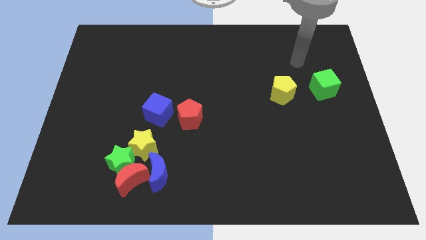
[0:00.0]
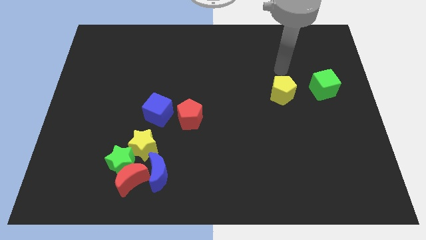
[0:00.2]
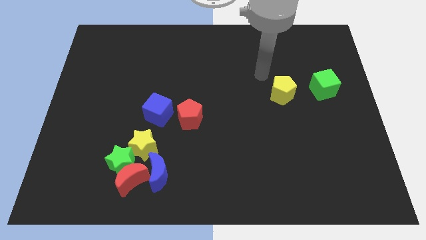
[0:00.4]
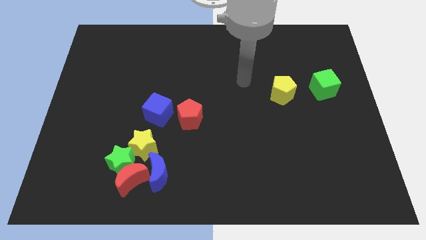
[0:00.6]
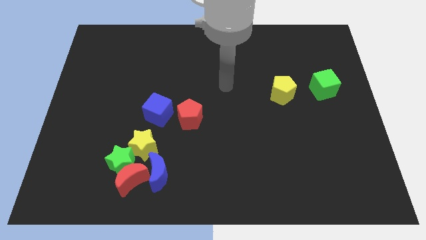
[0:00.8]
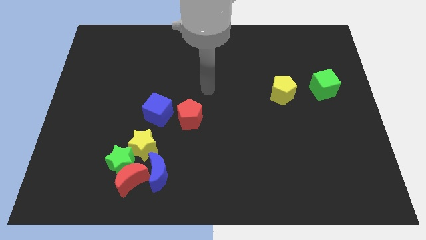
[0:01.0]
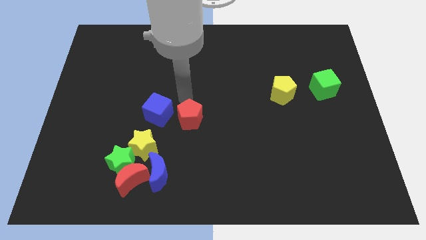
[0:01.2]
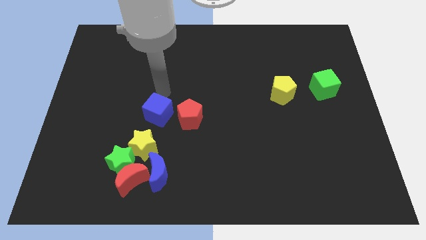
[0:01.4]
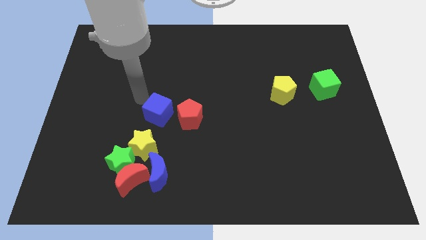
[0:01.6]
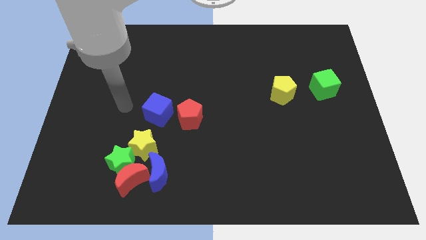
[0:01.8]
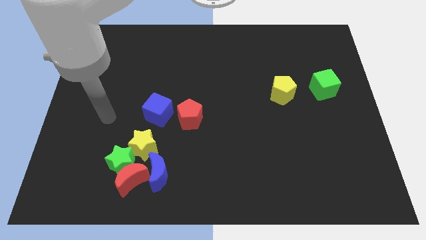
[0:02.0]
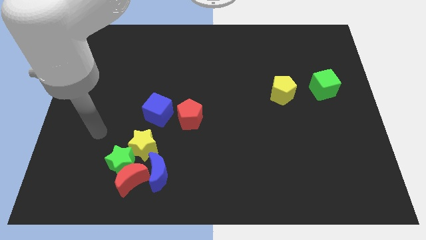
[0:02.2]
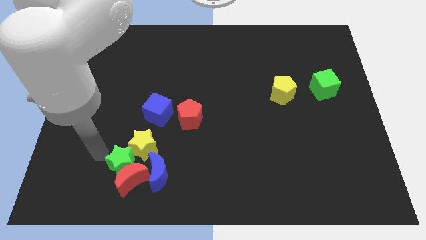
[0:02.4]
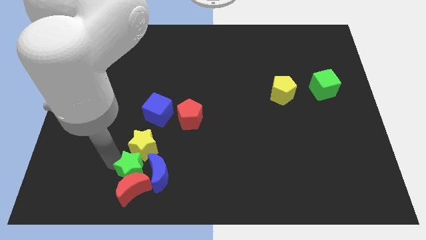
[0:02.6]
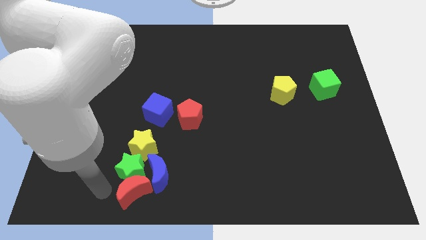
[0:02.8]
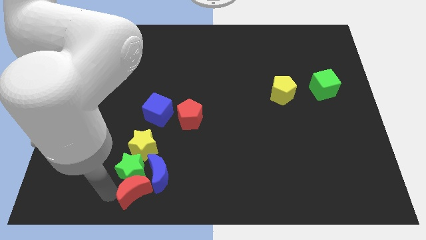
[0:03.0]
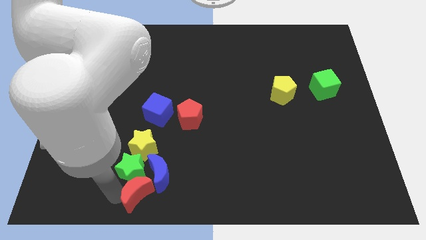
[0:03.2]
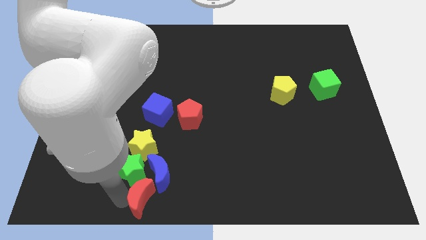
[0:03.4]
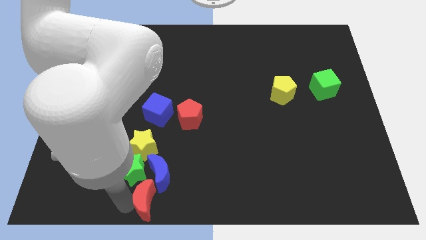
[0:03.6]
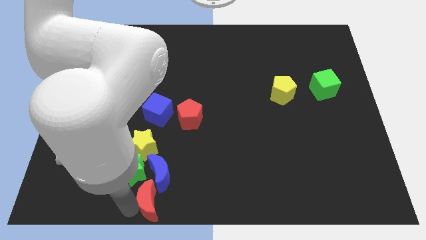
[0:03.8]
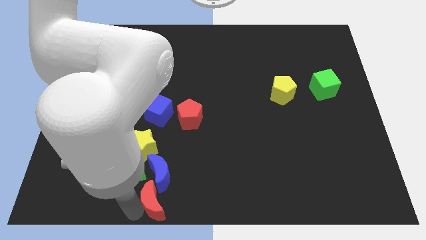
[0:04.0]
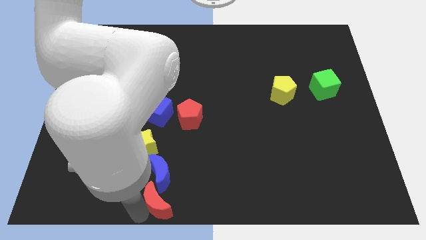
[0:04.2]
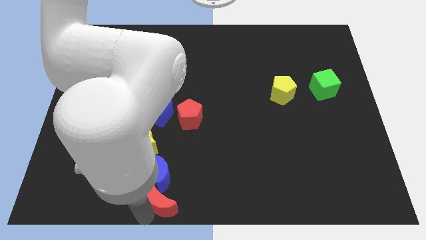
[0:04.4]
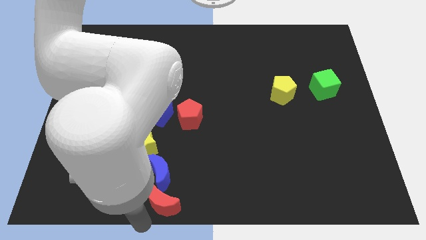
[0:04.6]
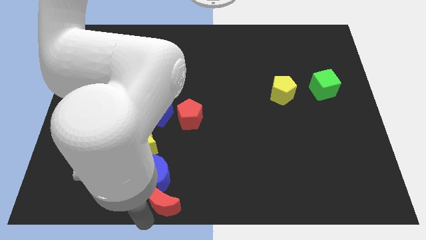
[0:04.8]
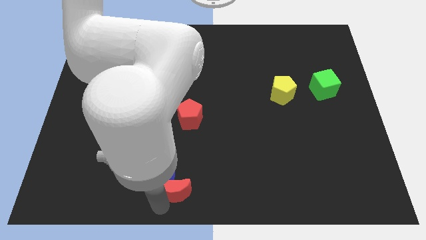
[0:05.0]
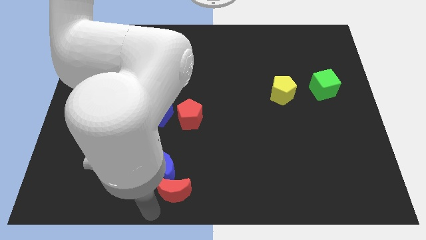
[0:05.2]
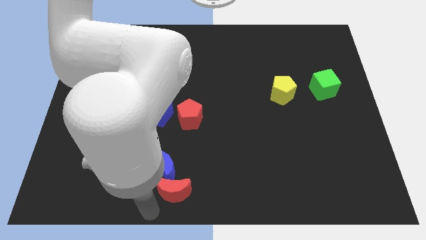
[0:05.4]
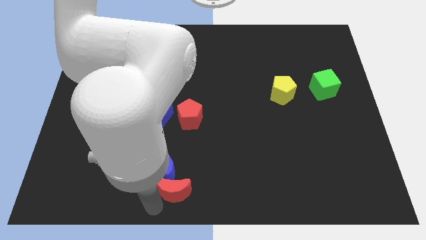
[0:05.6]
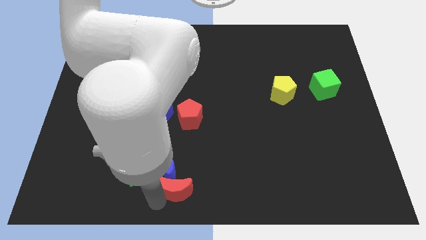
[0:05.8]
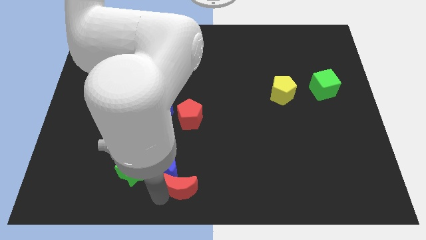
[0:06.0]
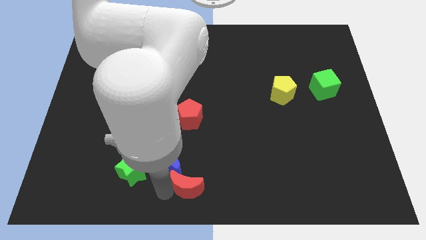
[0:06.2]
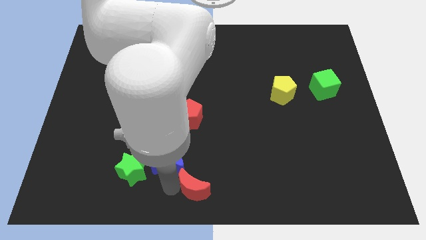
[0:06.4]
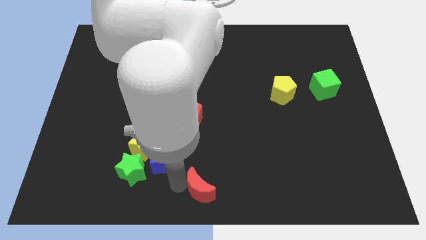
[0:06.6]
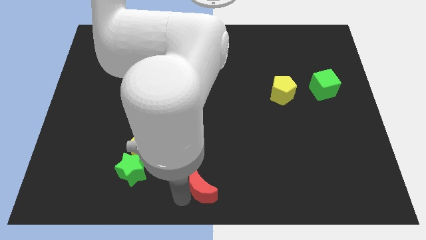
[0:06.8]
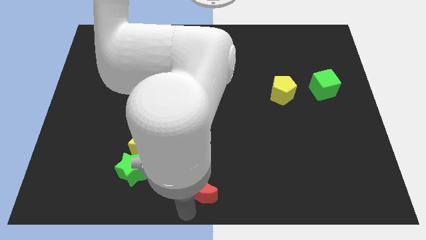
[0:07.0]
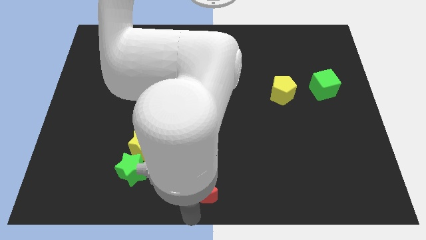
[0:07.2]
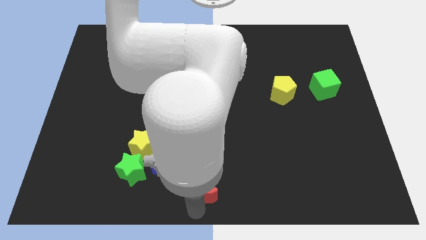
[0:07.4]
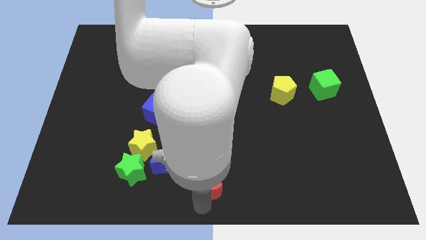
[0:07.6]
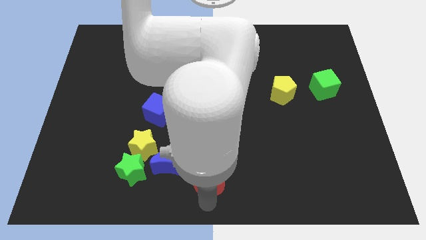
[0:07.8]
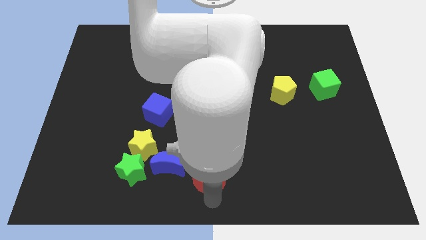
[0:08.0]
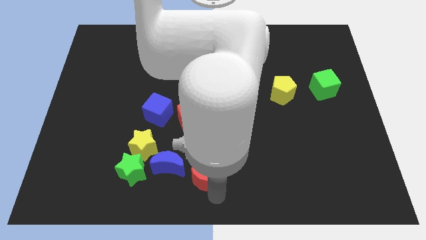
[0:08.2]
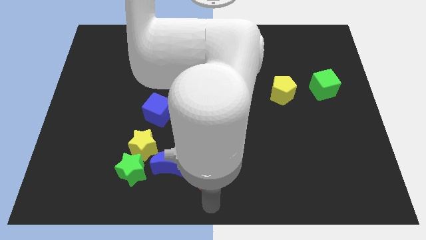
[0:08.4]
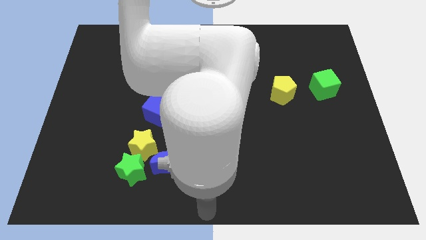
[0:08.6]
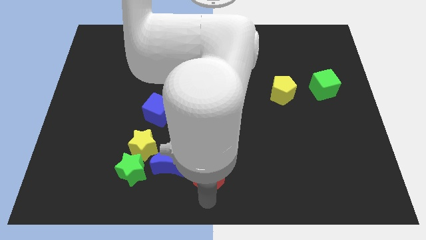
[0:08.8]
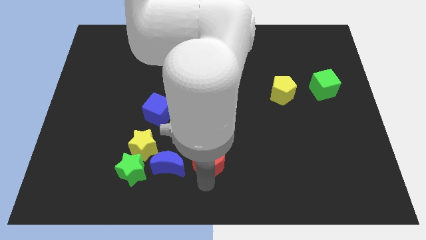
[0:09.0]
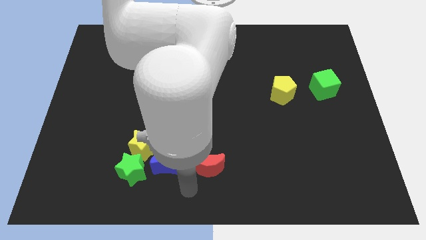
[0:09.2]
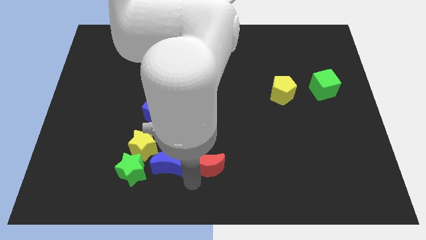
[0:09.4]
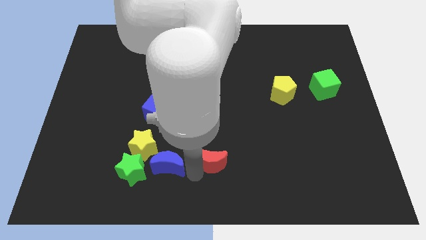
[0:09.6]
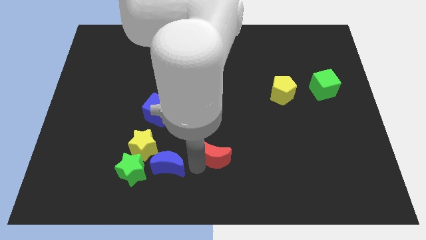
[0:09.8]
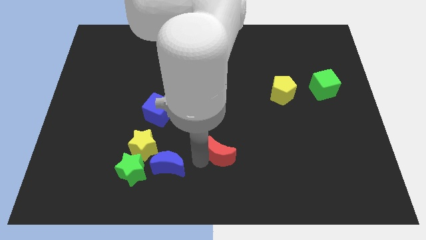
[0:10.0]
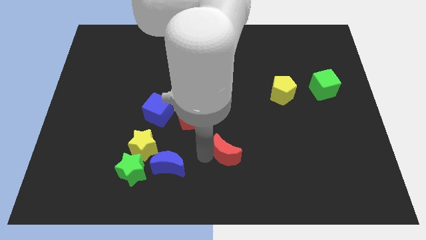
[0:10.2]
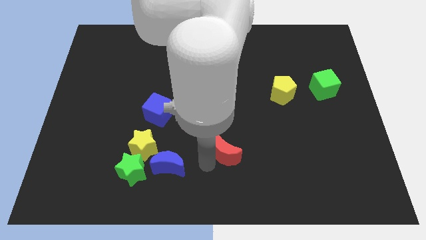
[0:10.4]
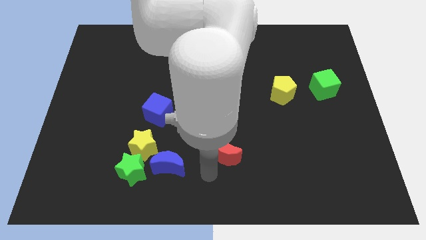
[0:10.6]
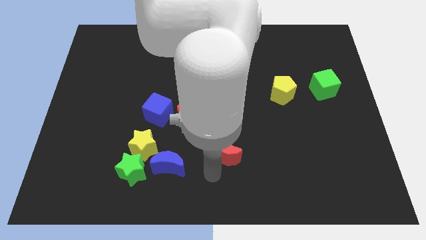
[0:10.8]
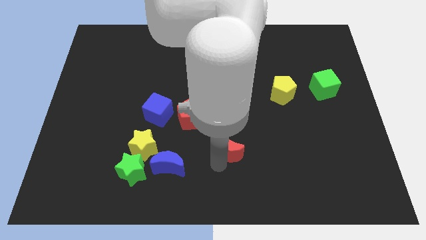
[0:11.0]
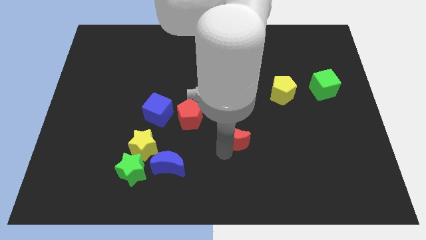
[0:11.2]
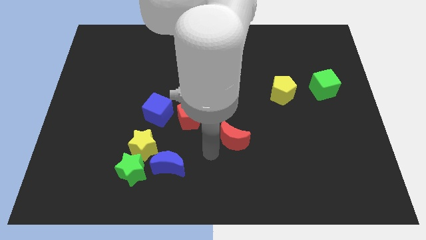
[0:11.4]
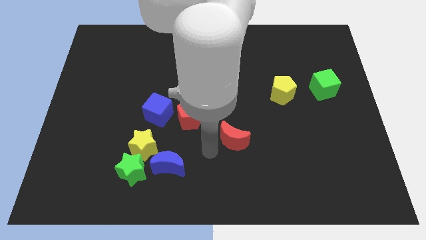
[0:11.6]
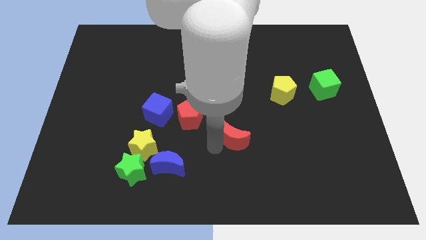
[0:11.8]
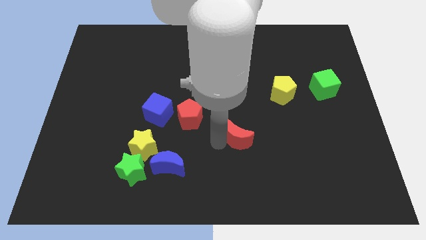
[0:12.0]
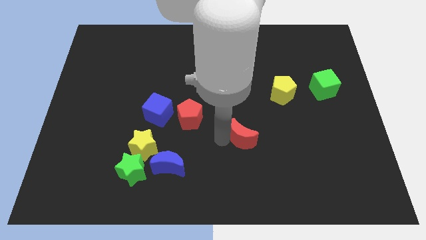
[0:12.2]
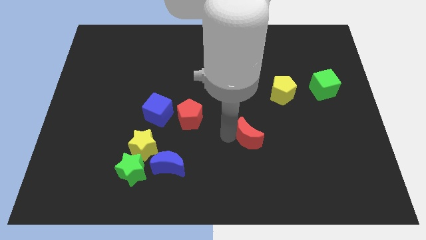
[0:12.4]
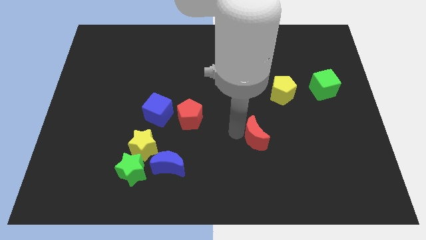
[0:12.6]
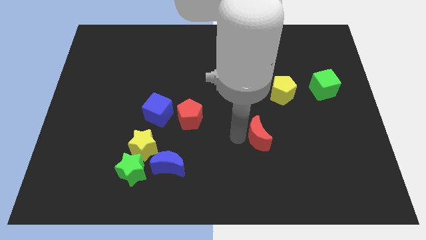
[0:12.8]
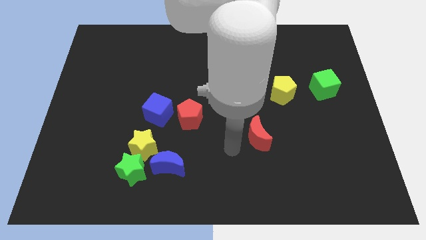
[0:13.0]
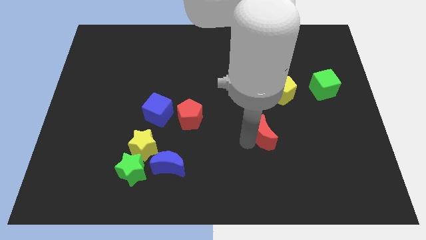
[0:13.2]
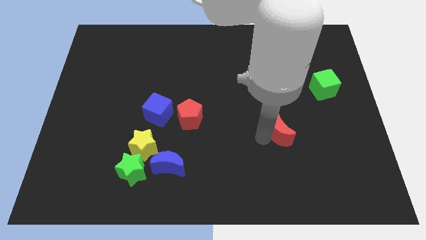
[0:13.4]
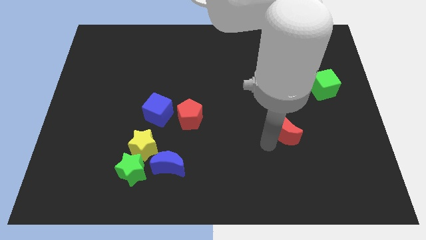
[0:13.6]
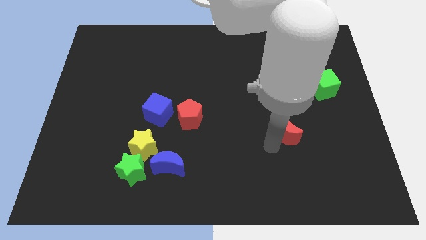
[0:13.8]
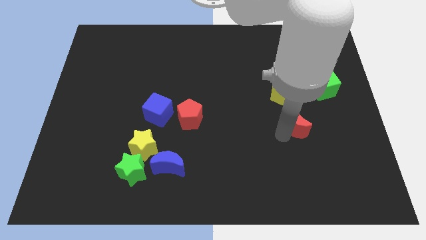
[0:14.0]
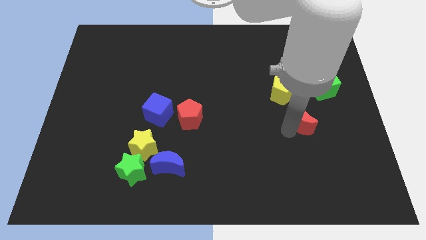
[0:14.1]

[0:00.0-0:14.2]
push the red moon to the bottom right side of the yellow pentagon
